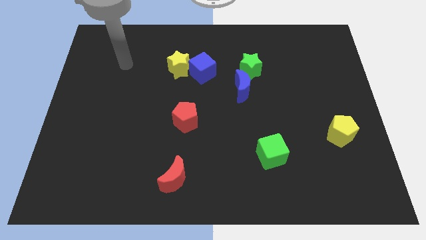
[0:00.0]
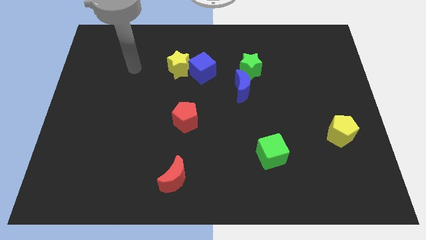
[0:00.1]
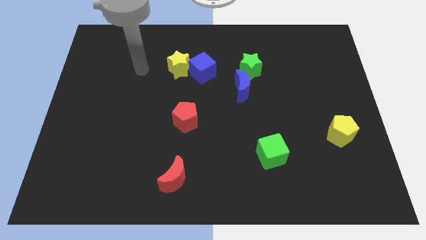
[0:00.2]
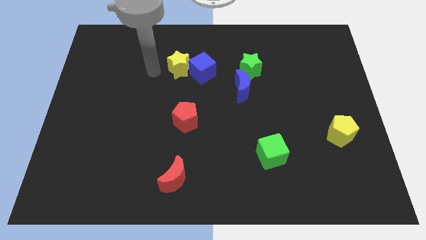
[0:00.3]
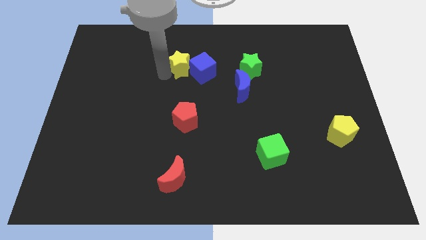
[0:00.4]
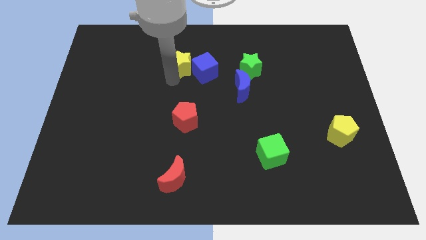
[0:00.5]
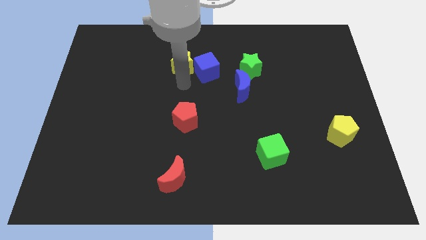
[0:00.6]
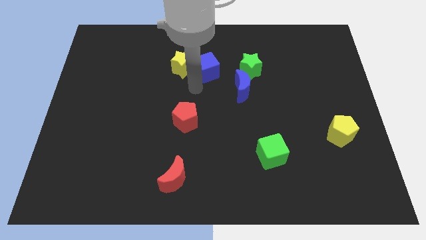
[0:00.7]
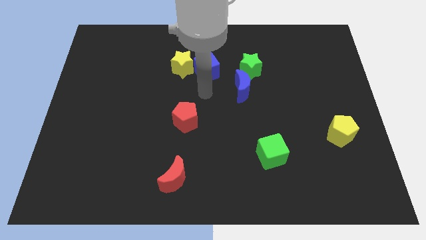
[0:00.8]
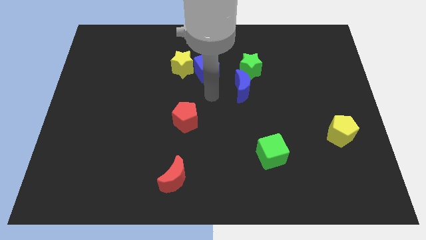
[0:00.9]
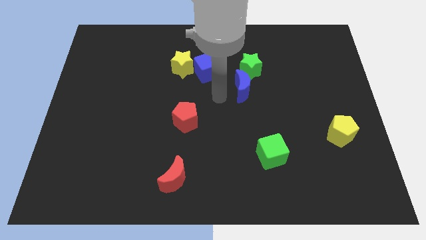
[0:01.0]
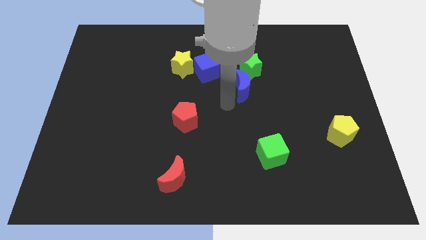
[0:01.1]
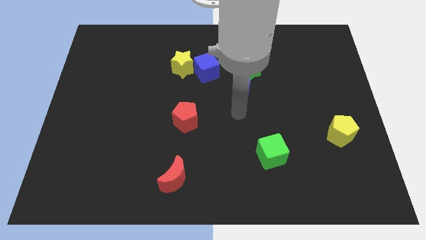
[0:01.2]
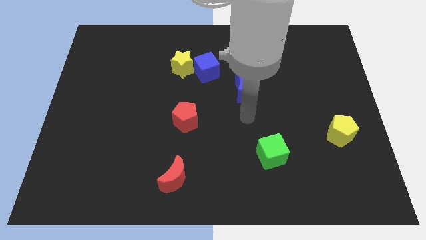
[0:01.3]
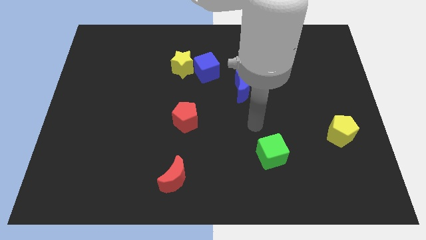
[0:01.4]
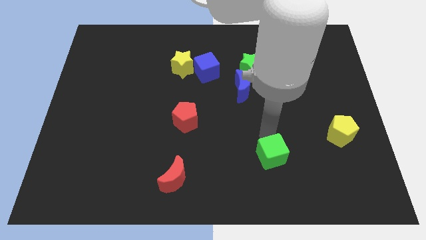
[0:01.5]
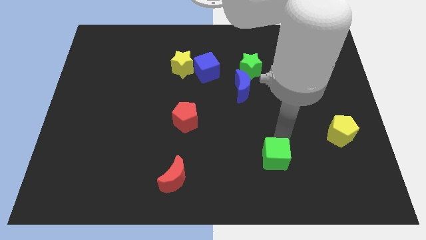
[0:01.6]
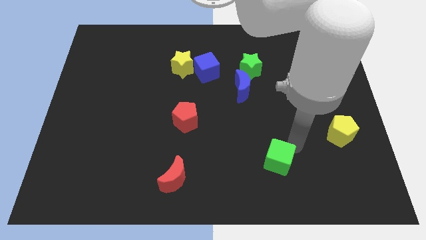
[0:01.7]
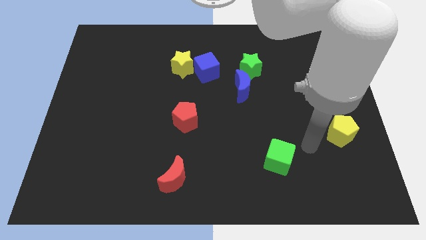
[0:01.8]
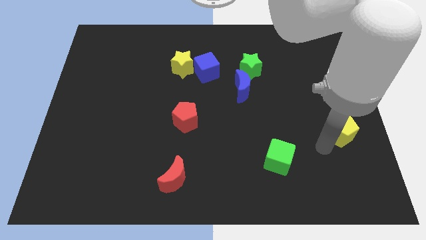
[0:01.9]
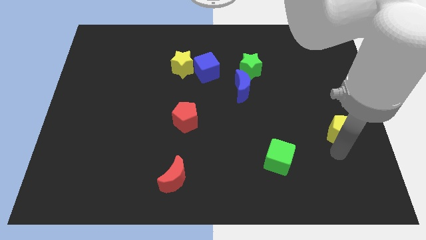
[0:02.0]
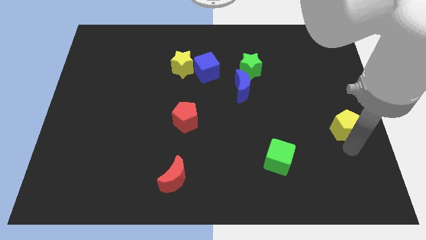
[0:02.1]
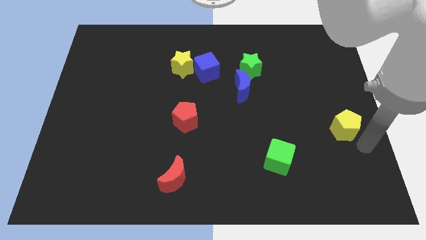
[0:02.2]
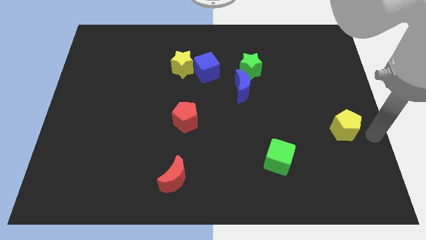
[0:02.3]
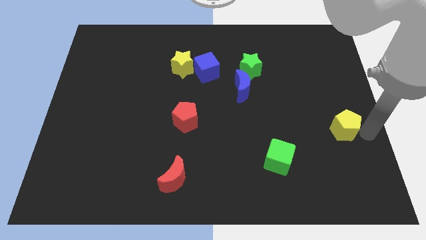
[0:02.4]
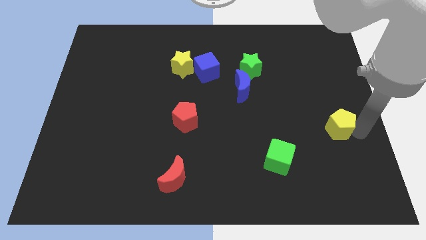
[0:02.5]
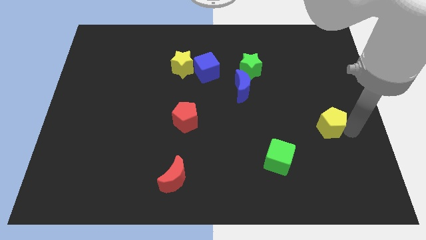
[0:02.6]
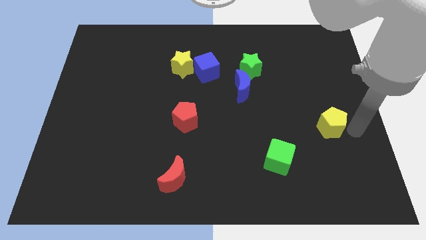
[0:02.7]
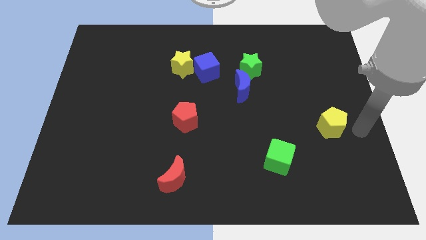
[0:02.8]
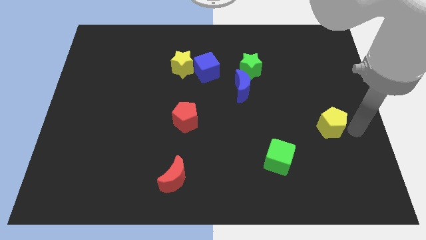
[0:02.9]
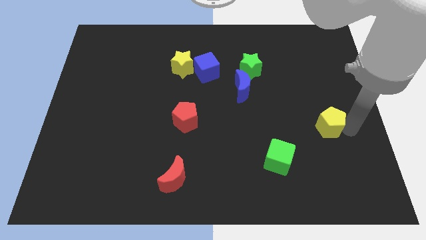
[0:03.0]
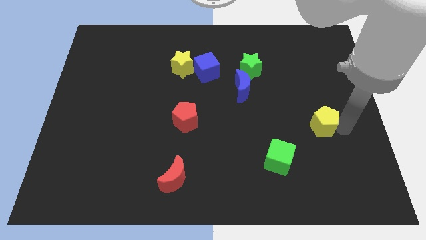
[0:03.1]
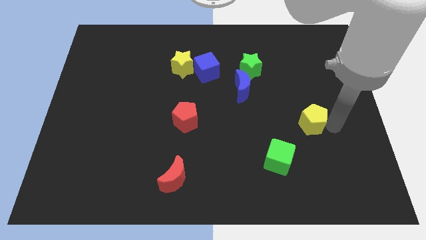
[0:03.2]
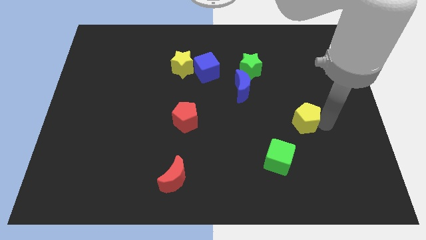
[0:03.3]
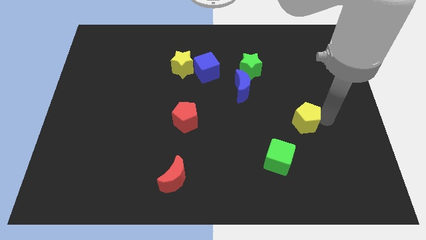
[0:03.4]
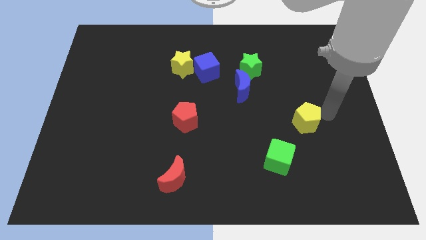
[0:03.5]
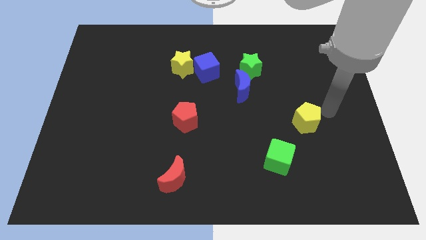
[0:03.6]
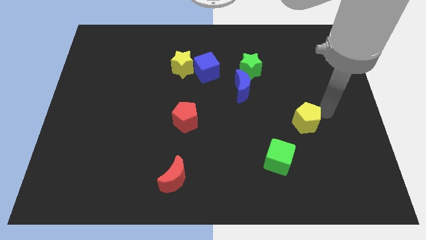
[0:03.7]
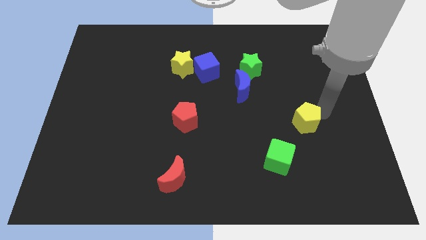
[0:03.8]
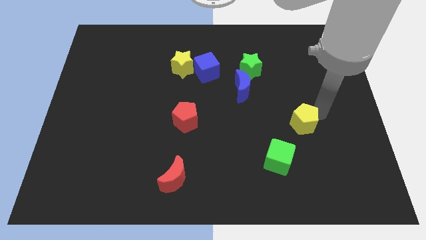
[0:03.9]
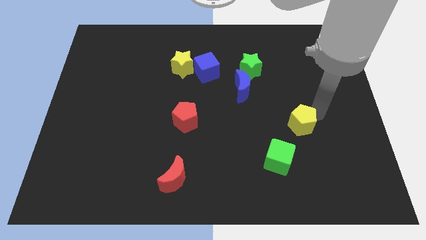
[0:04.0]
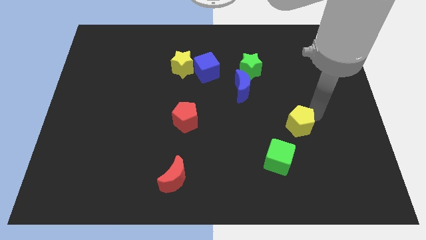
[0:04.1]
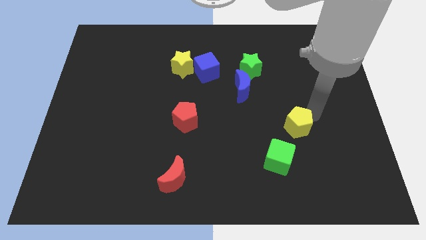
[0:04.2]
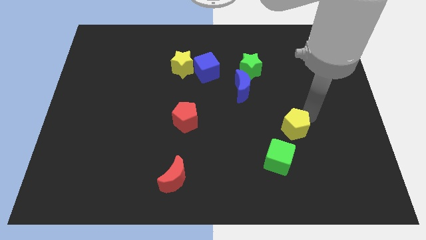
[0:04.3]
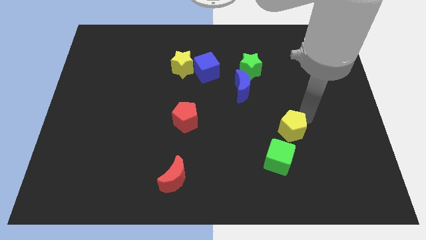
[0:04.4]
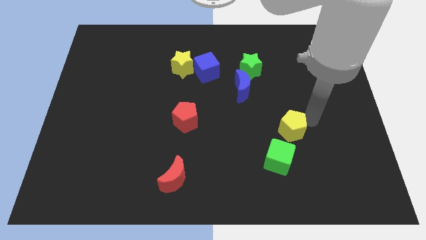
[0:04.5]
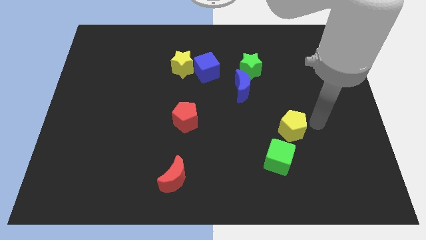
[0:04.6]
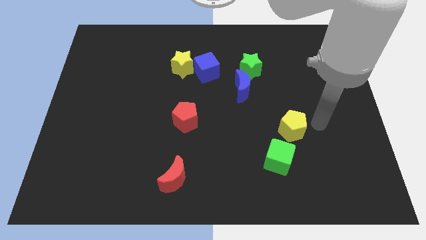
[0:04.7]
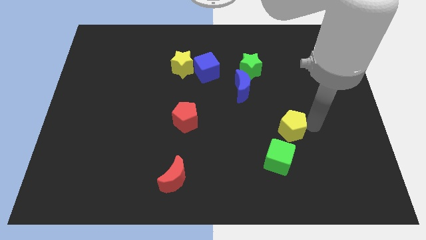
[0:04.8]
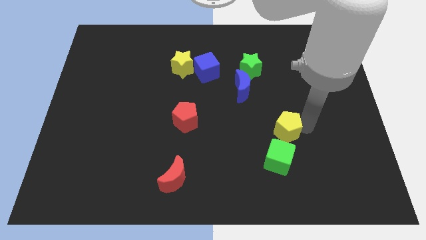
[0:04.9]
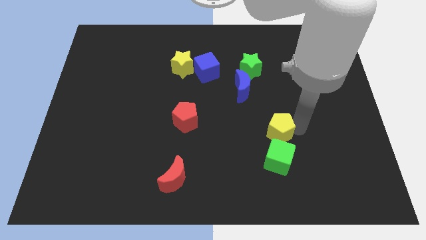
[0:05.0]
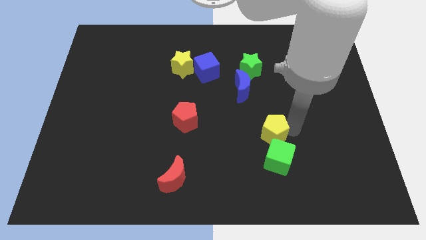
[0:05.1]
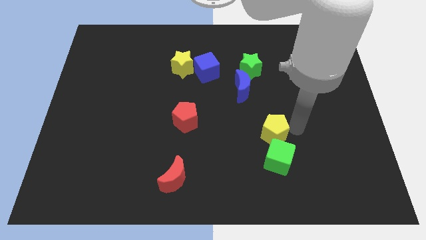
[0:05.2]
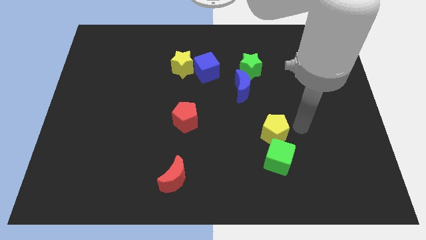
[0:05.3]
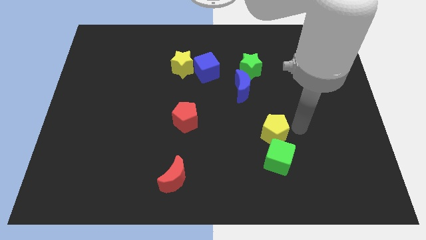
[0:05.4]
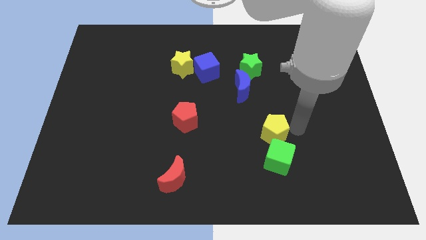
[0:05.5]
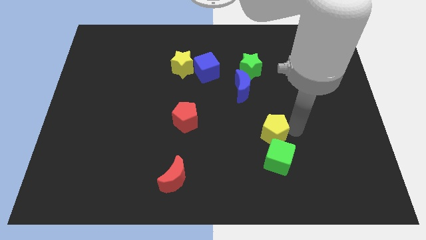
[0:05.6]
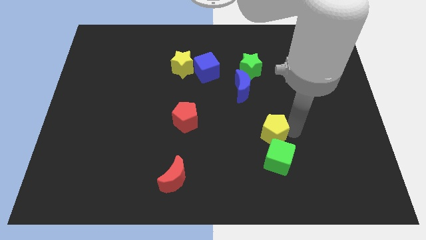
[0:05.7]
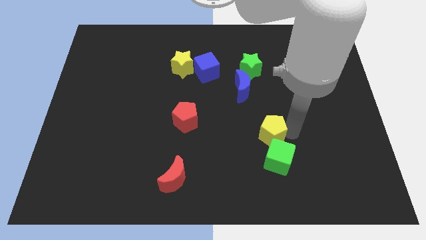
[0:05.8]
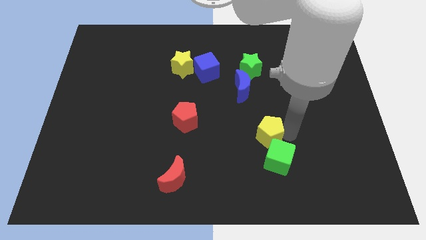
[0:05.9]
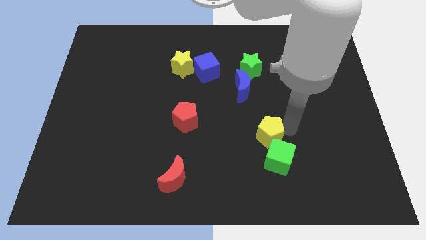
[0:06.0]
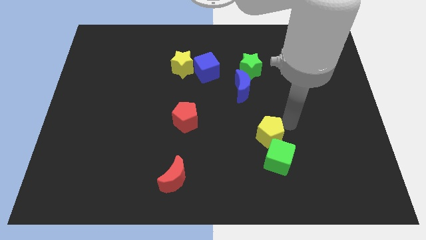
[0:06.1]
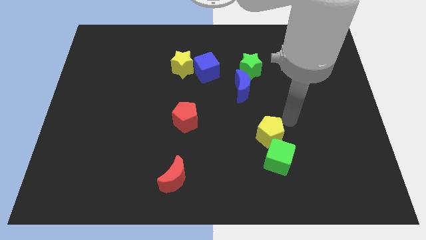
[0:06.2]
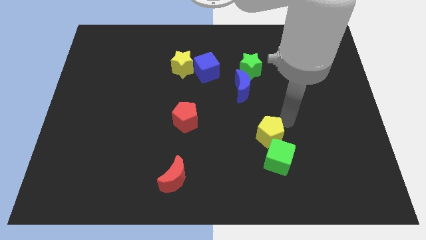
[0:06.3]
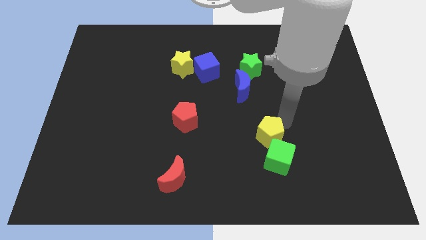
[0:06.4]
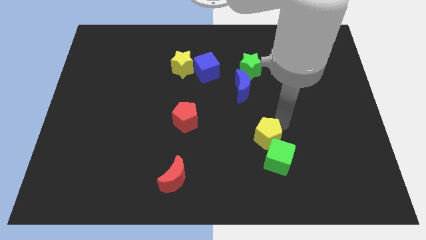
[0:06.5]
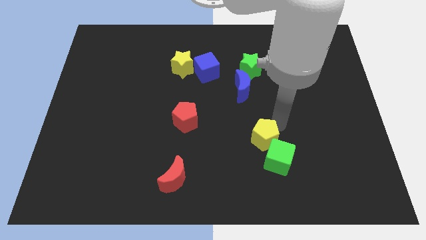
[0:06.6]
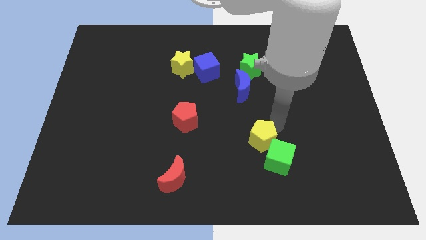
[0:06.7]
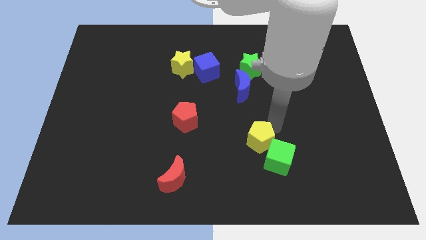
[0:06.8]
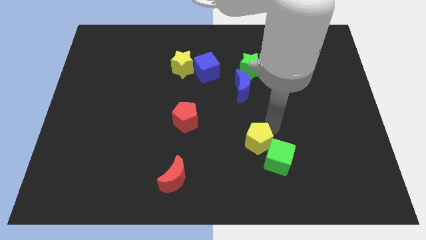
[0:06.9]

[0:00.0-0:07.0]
push the yellow pentagon left of the green cube
